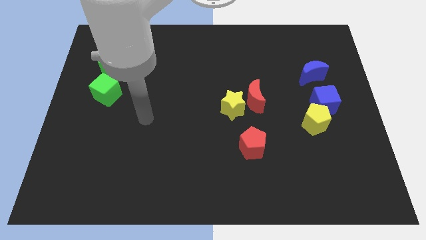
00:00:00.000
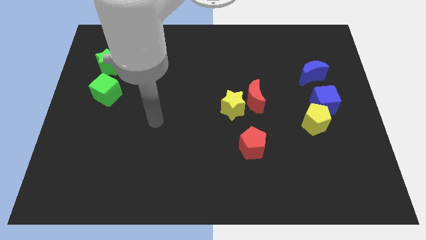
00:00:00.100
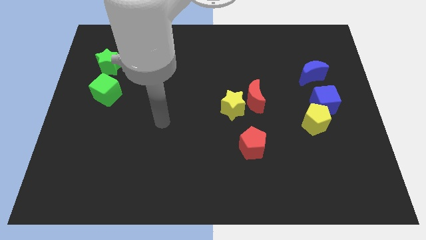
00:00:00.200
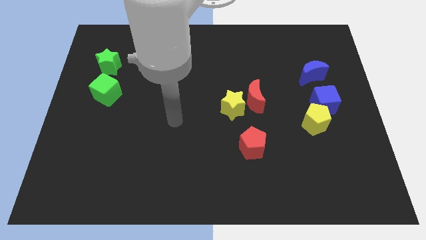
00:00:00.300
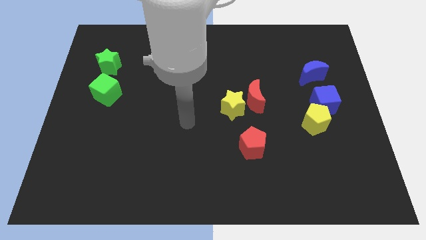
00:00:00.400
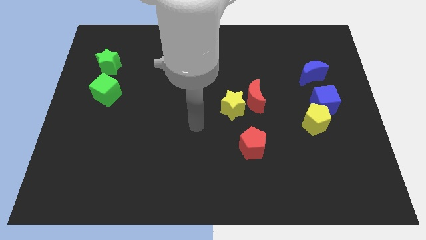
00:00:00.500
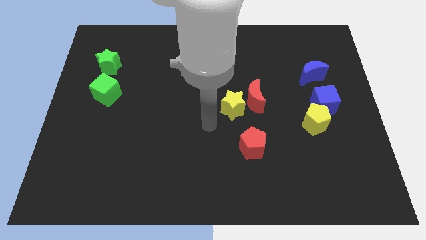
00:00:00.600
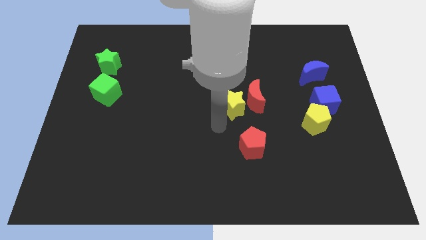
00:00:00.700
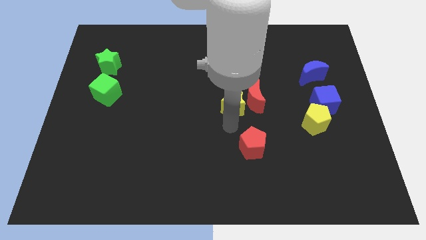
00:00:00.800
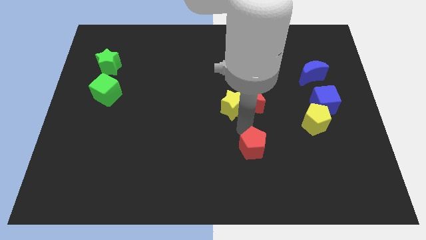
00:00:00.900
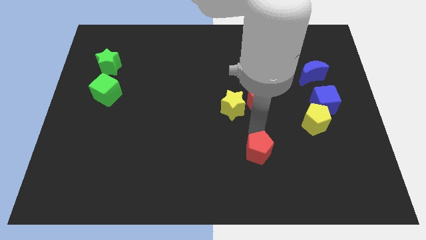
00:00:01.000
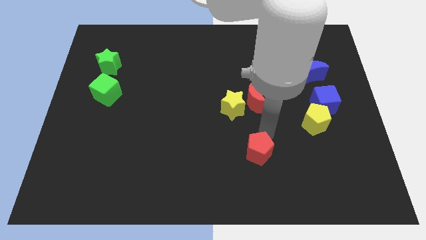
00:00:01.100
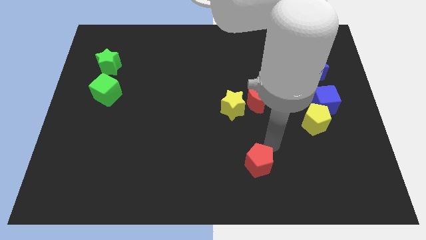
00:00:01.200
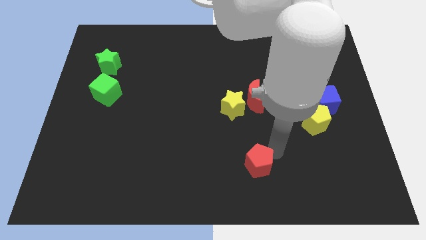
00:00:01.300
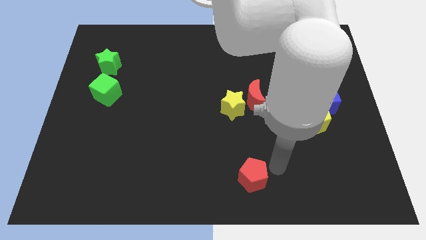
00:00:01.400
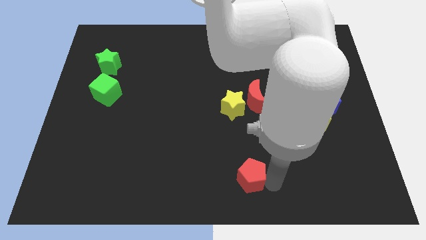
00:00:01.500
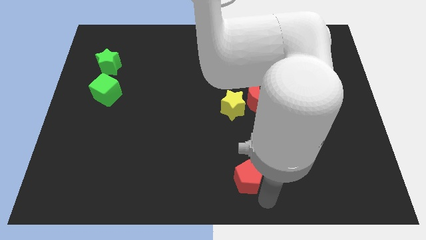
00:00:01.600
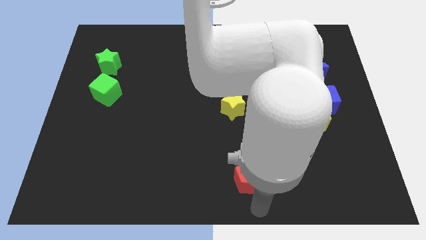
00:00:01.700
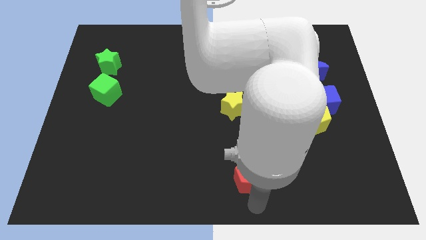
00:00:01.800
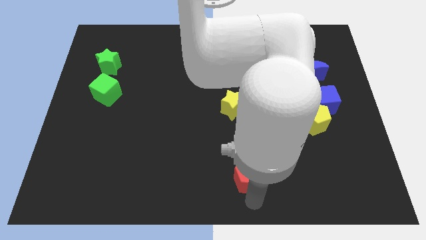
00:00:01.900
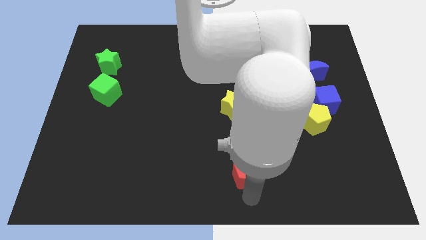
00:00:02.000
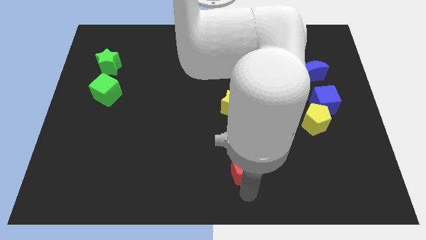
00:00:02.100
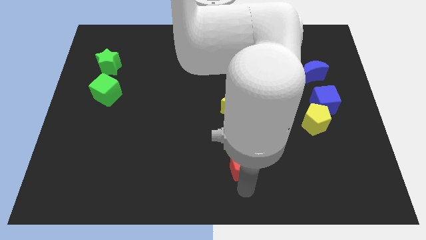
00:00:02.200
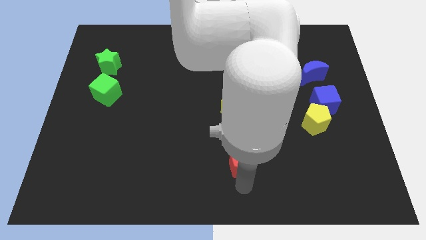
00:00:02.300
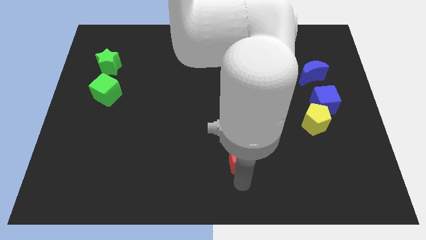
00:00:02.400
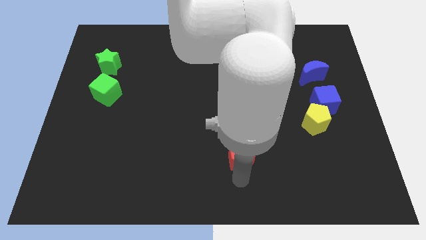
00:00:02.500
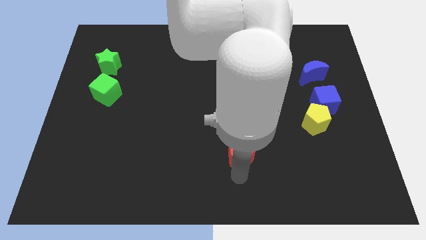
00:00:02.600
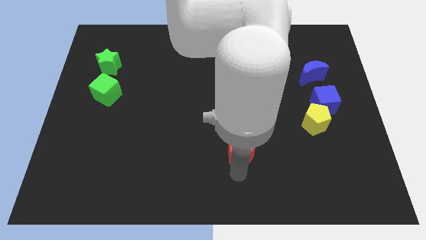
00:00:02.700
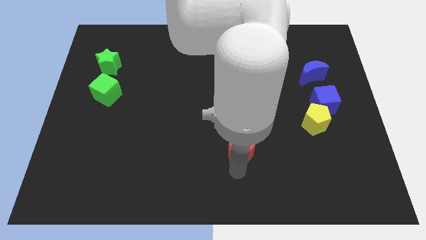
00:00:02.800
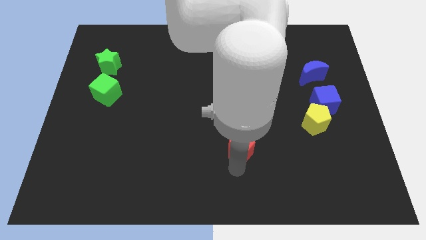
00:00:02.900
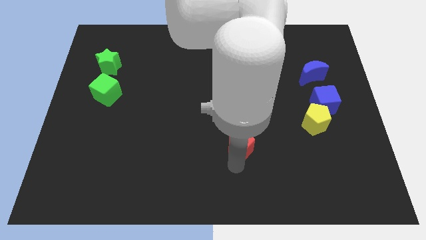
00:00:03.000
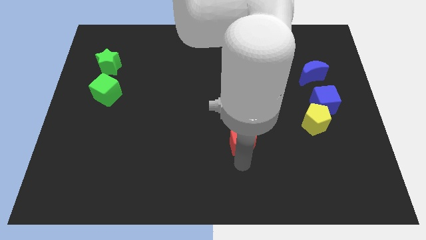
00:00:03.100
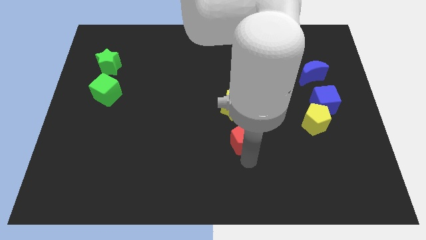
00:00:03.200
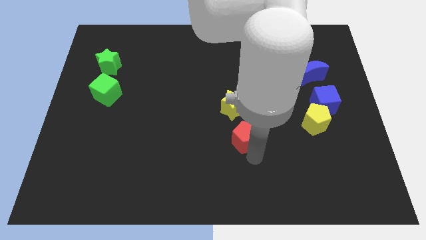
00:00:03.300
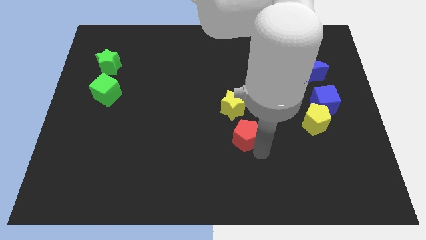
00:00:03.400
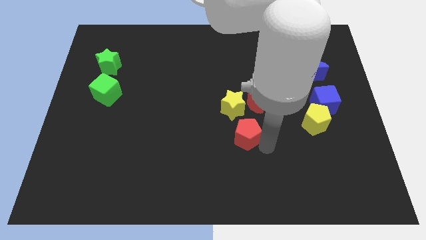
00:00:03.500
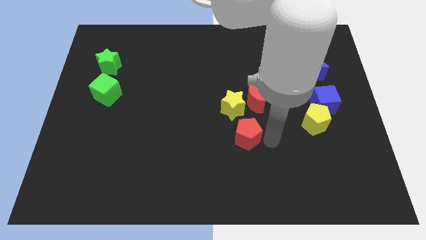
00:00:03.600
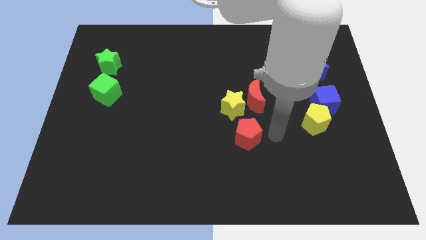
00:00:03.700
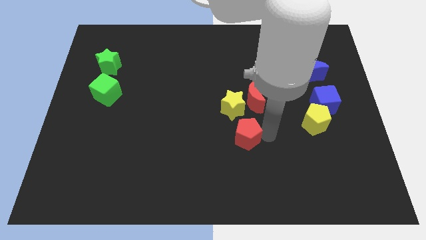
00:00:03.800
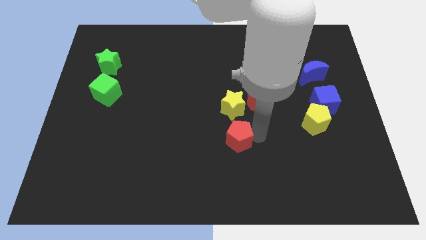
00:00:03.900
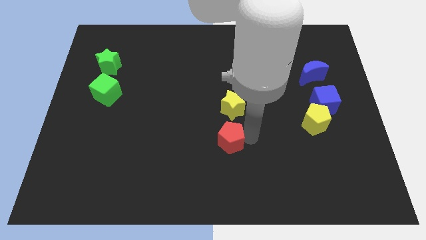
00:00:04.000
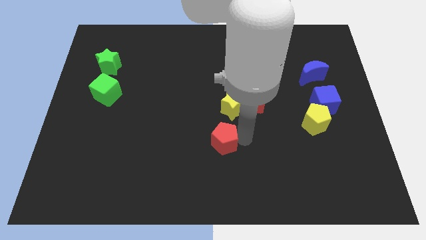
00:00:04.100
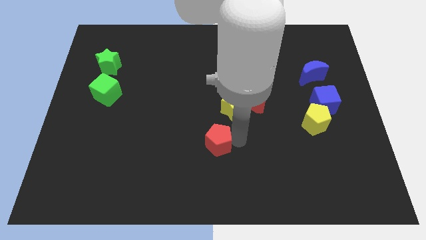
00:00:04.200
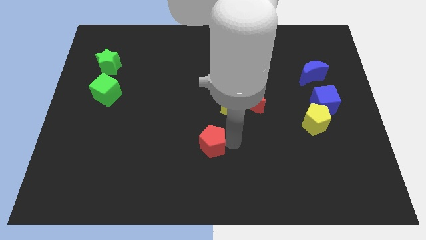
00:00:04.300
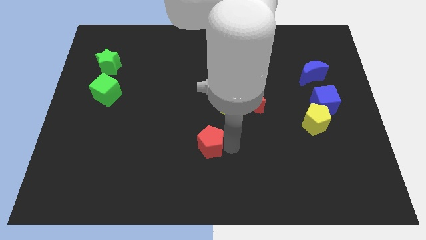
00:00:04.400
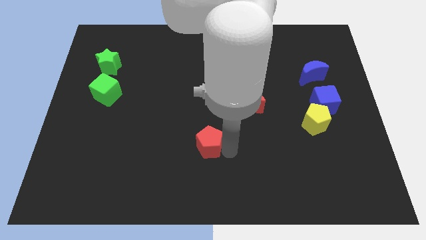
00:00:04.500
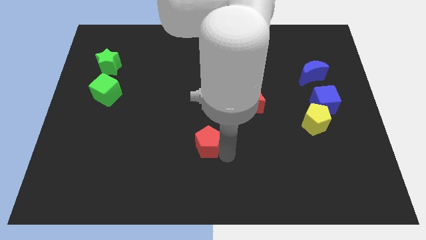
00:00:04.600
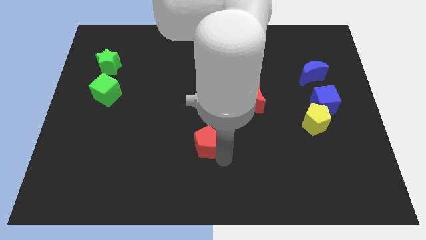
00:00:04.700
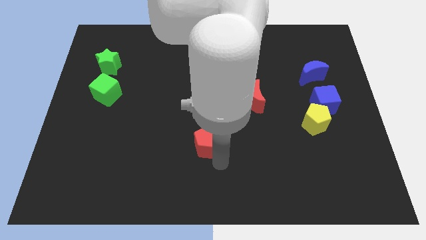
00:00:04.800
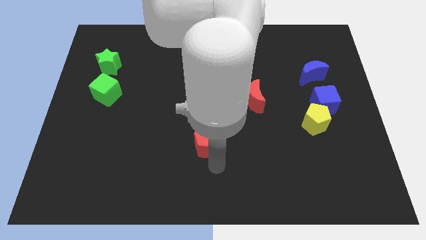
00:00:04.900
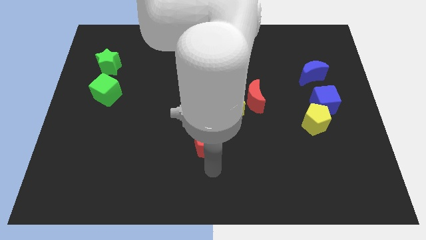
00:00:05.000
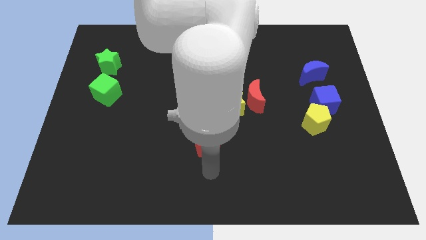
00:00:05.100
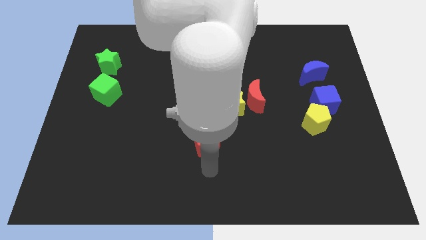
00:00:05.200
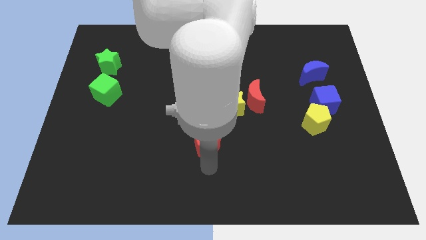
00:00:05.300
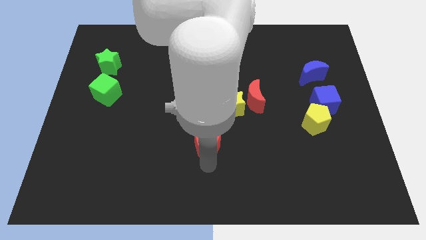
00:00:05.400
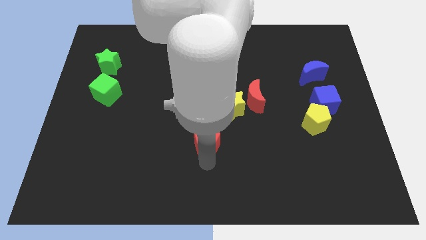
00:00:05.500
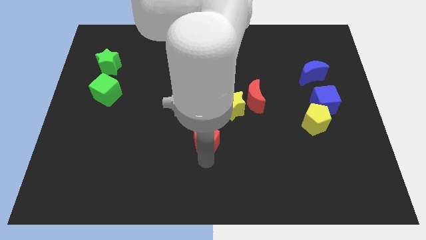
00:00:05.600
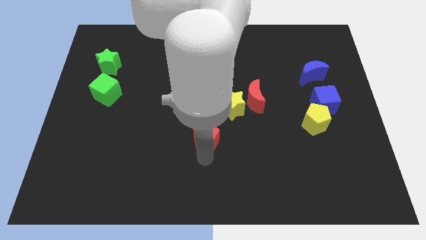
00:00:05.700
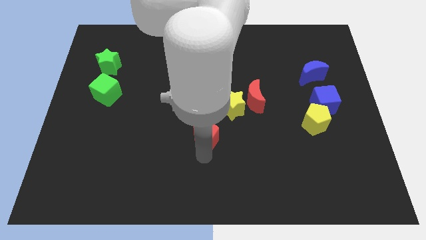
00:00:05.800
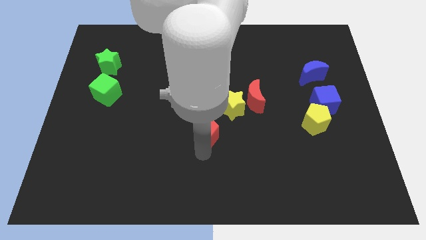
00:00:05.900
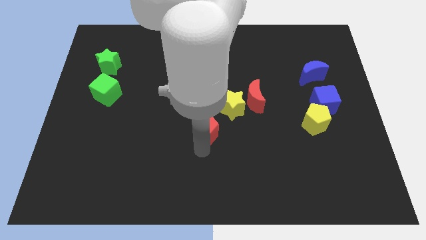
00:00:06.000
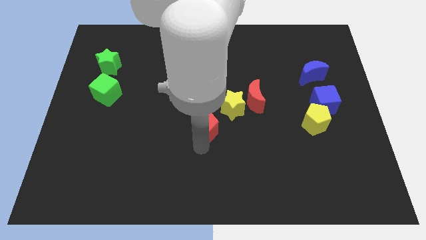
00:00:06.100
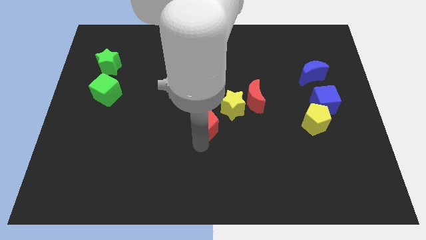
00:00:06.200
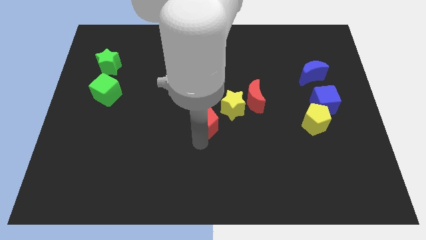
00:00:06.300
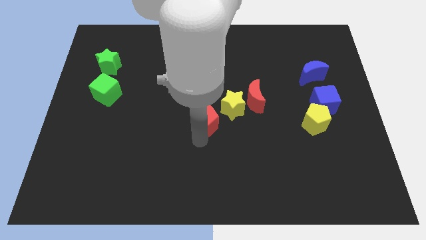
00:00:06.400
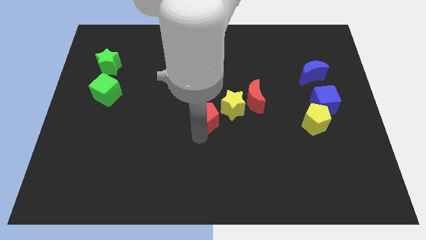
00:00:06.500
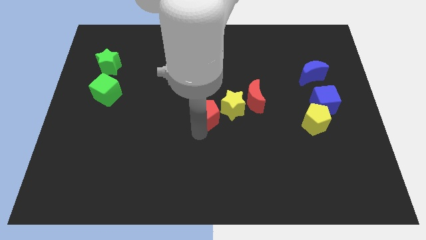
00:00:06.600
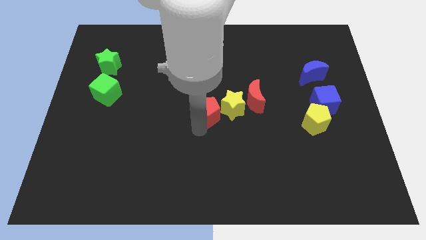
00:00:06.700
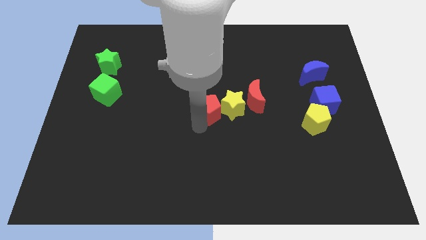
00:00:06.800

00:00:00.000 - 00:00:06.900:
put the red pentagon to the top left of the yellow star

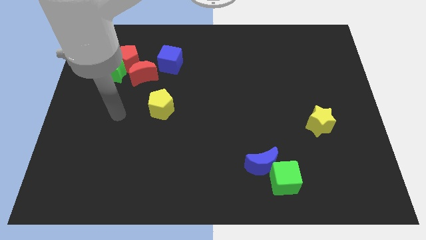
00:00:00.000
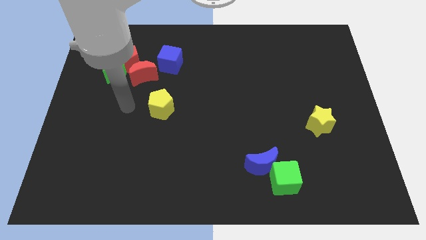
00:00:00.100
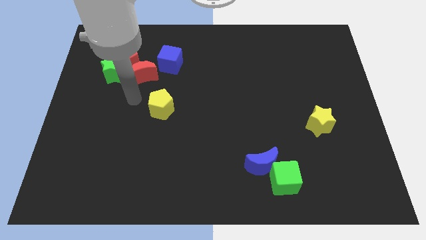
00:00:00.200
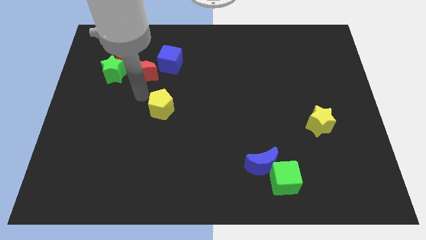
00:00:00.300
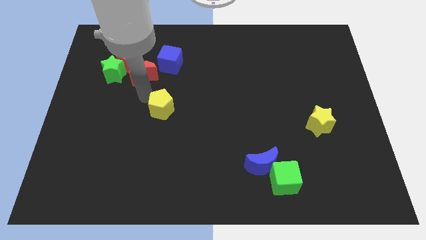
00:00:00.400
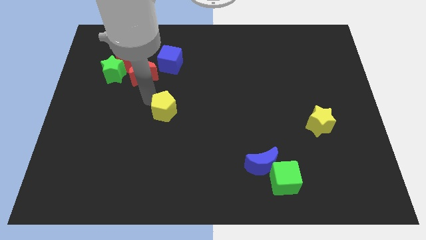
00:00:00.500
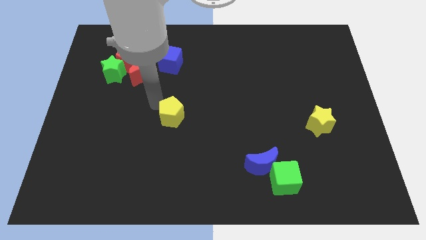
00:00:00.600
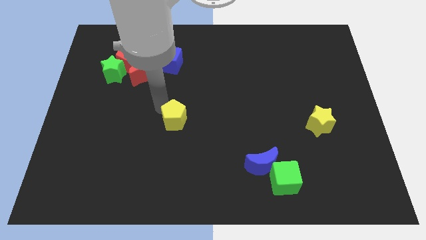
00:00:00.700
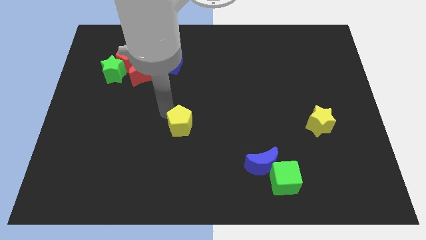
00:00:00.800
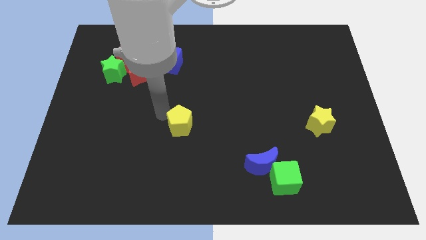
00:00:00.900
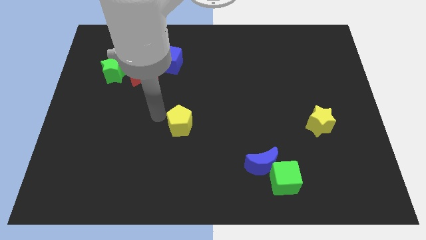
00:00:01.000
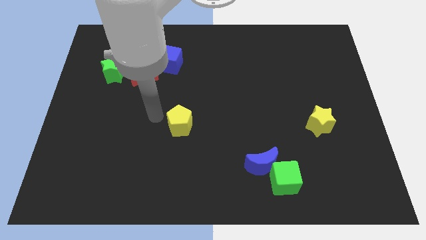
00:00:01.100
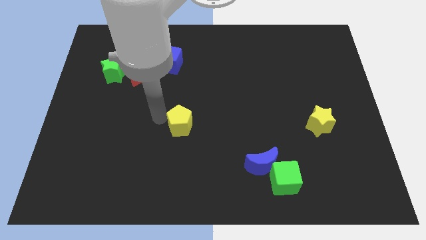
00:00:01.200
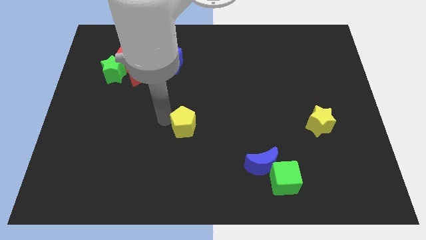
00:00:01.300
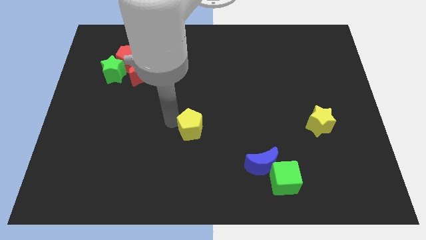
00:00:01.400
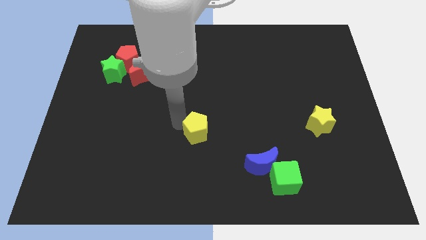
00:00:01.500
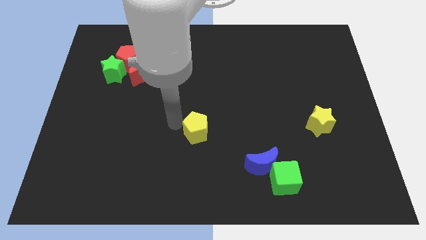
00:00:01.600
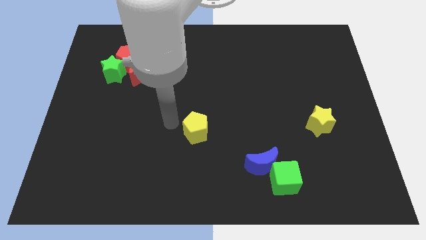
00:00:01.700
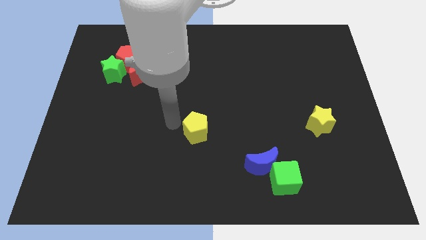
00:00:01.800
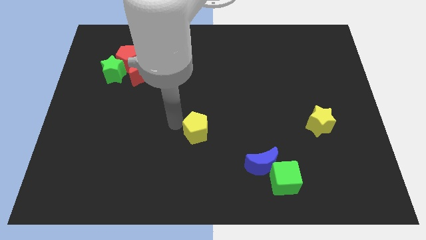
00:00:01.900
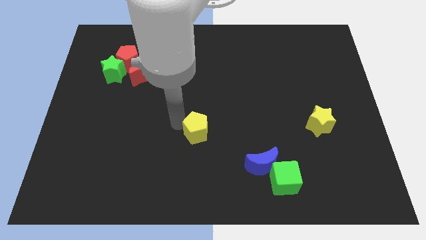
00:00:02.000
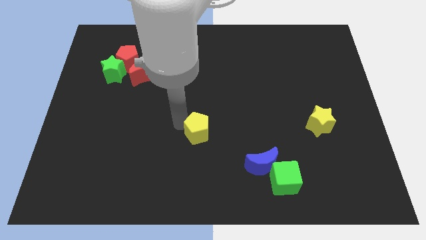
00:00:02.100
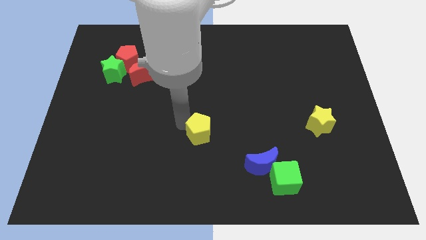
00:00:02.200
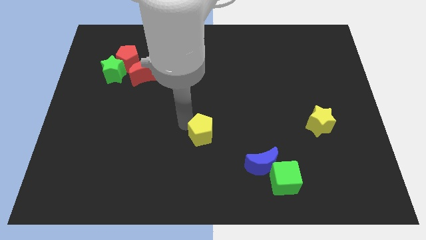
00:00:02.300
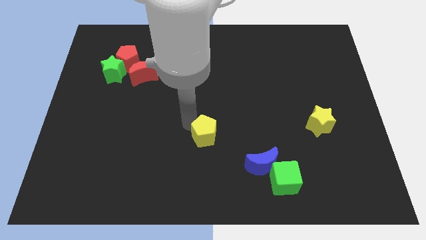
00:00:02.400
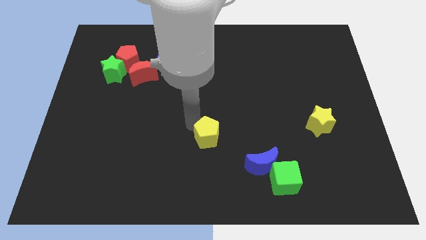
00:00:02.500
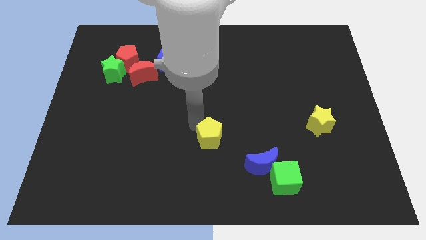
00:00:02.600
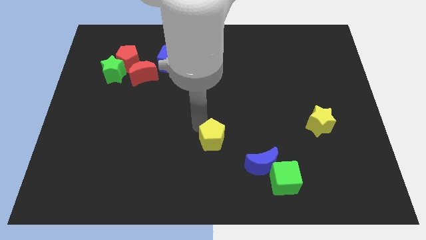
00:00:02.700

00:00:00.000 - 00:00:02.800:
put the yellow pentagon diagonally up and to the left of the blue moon
